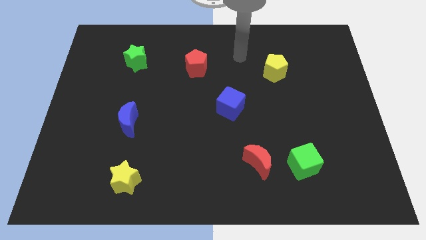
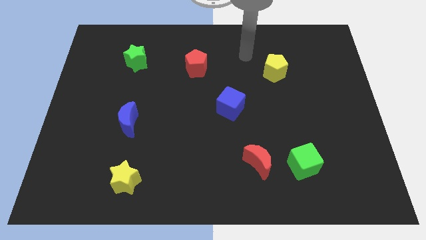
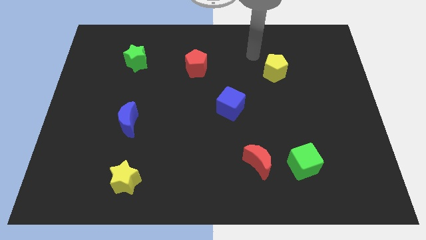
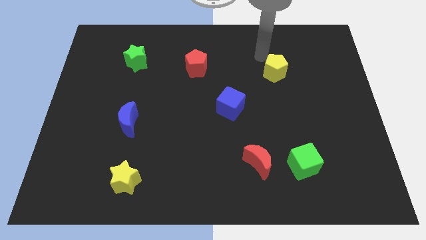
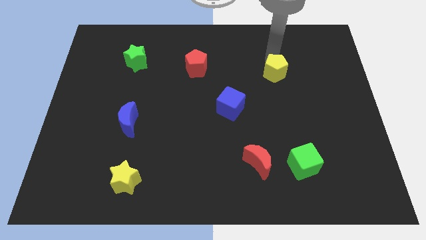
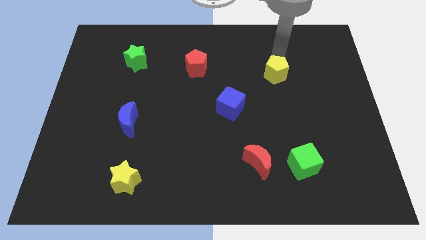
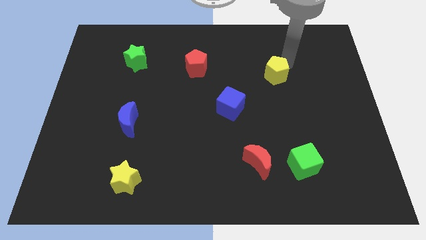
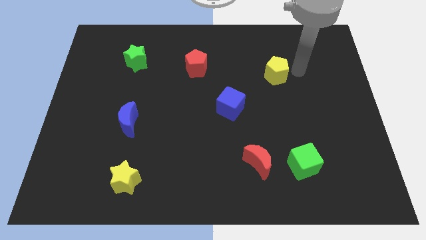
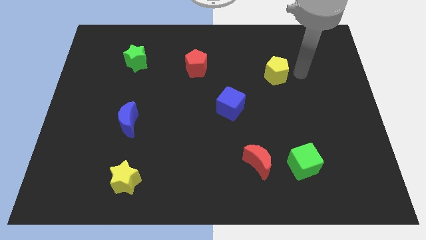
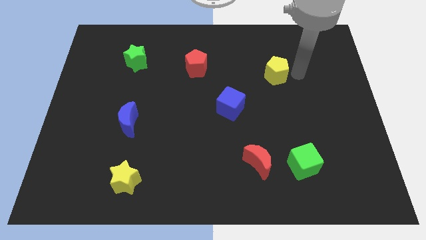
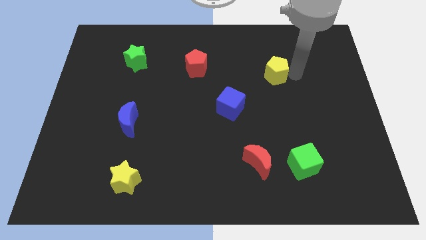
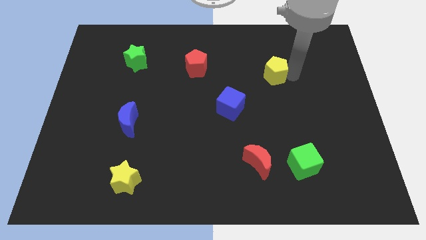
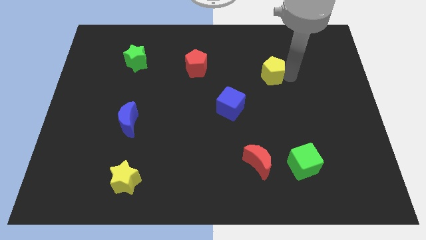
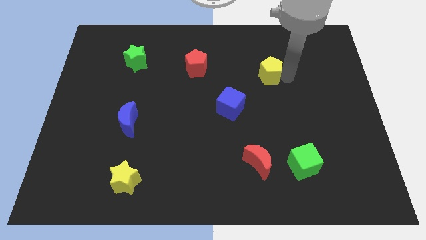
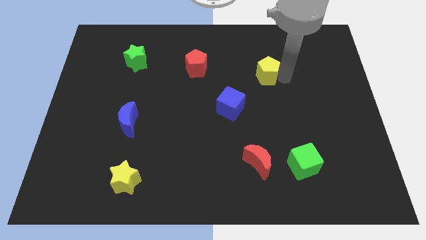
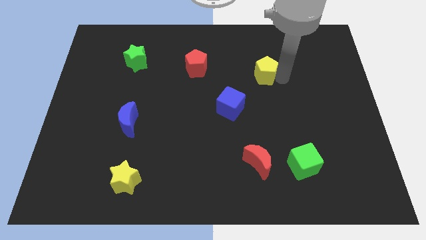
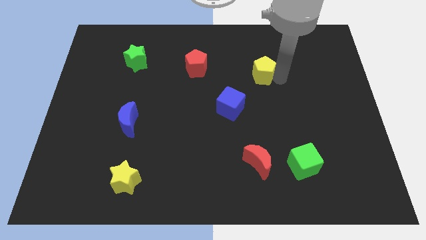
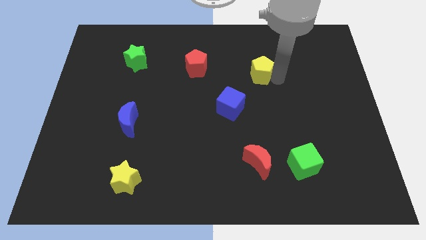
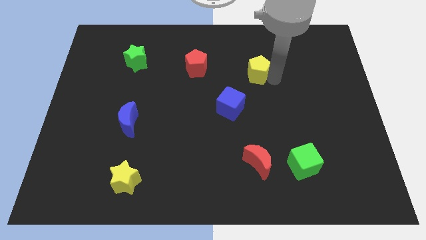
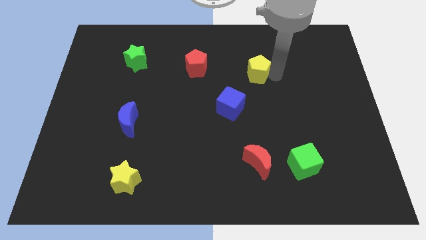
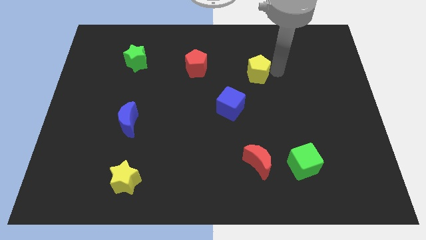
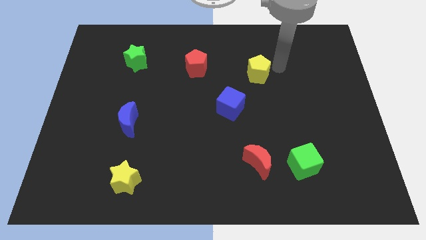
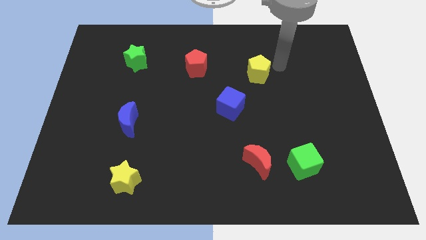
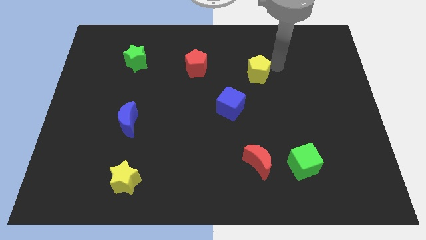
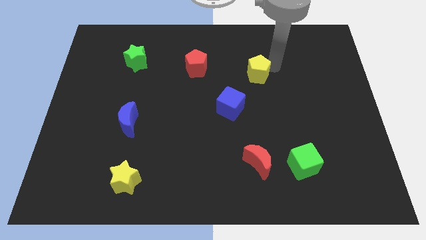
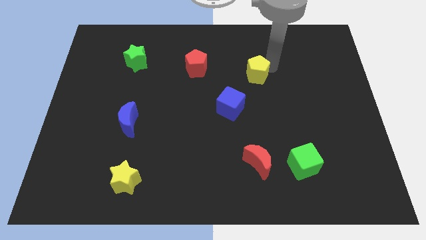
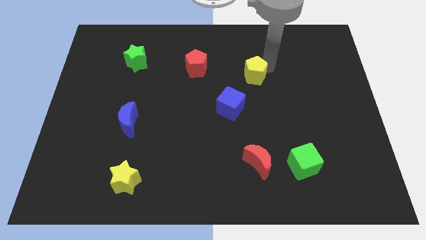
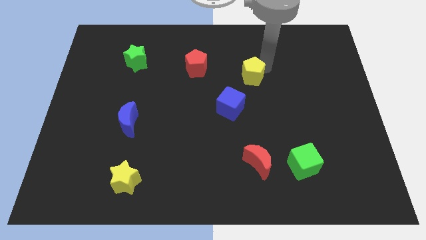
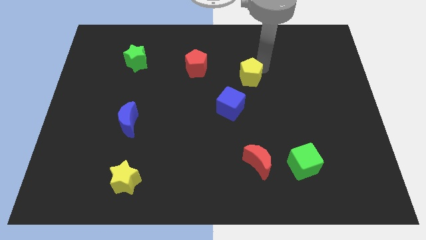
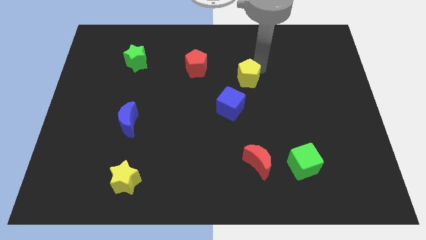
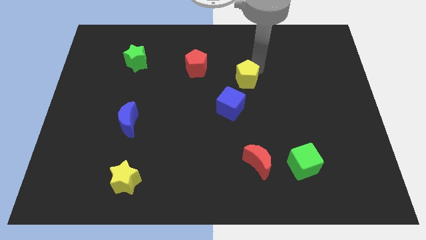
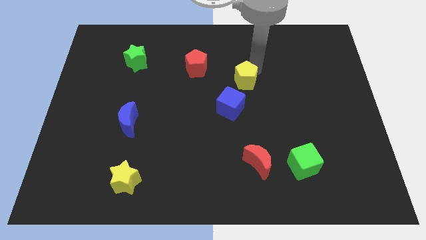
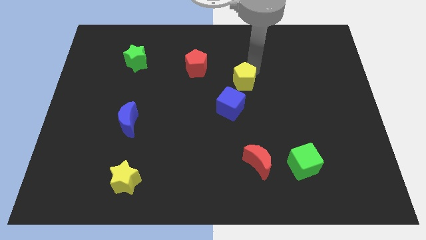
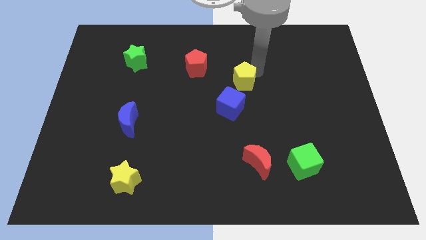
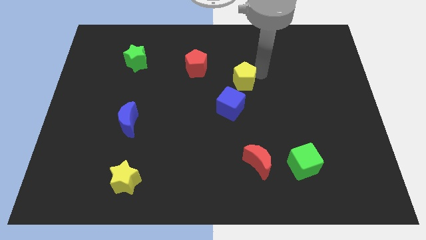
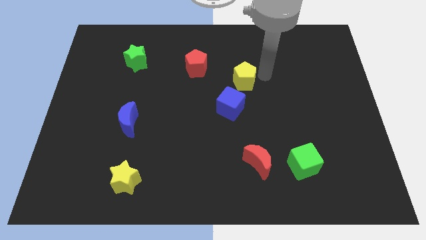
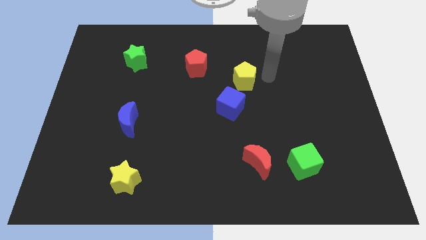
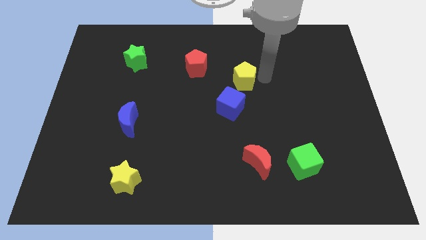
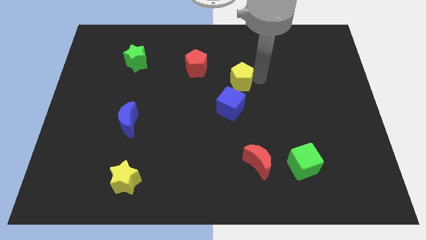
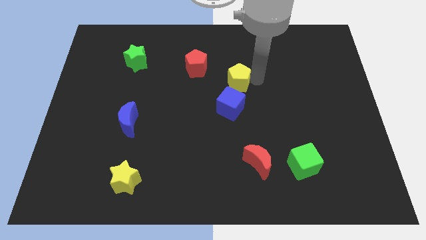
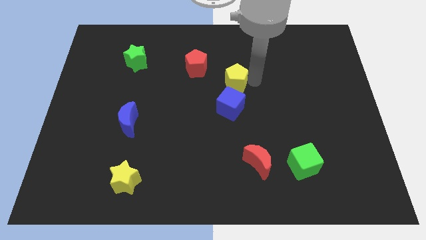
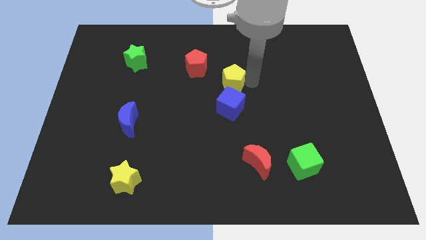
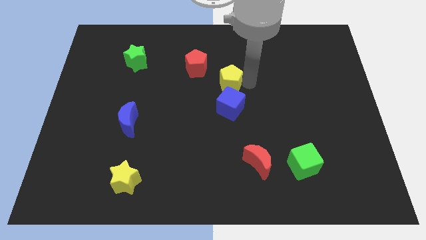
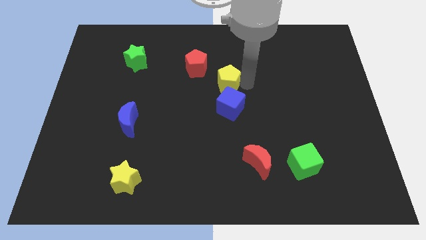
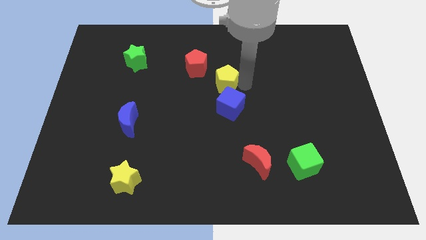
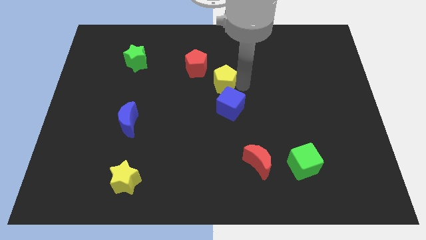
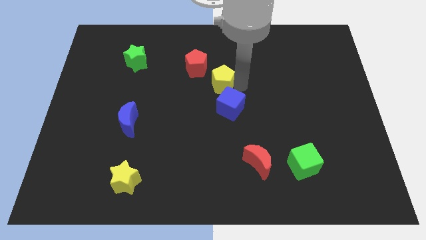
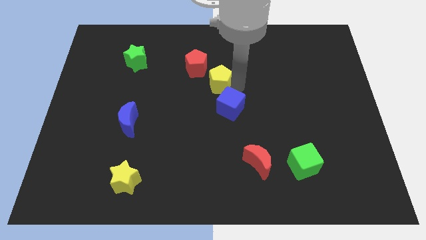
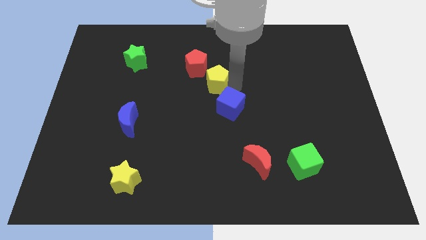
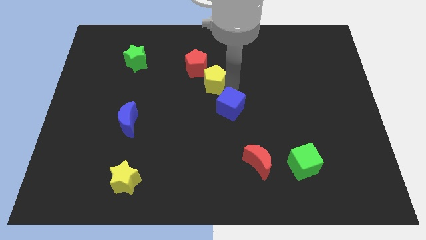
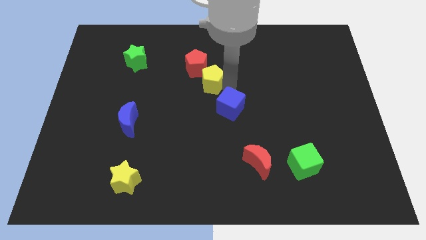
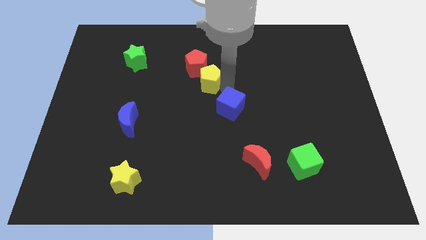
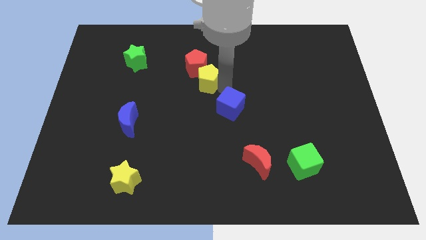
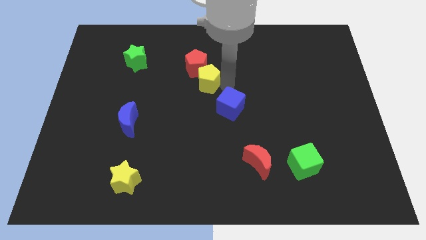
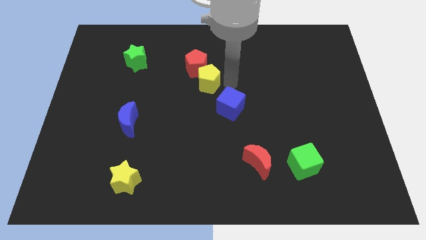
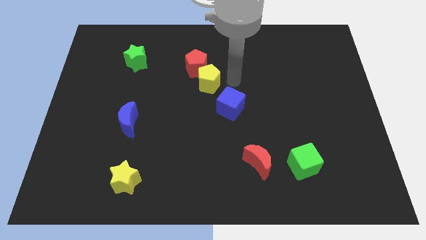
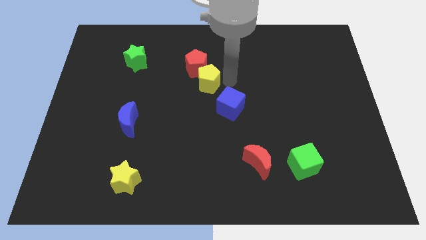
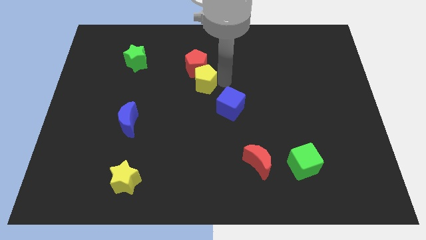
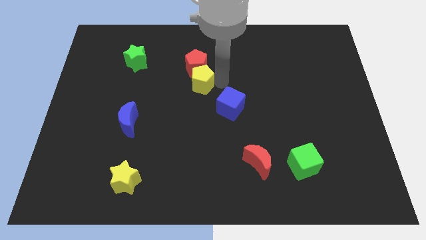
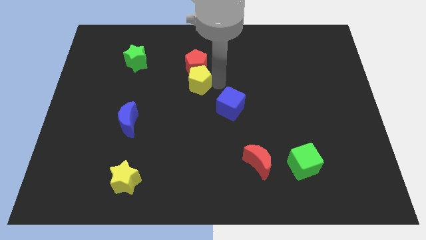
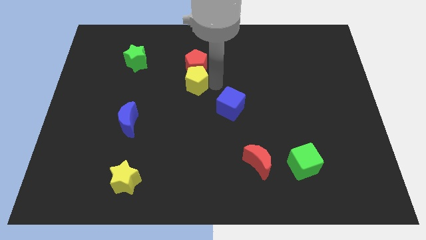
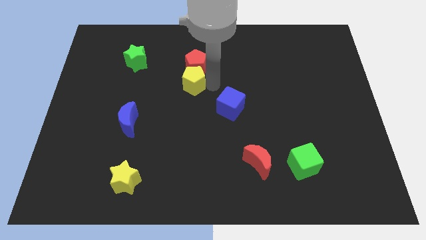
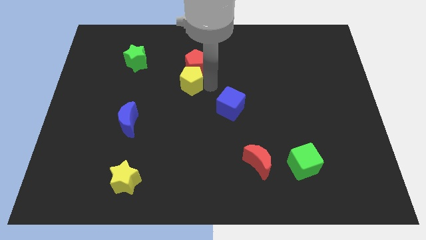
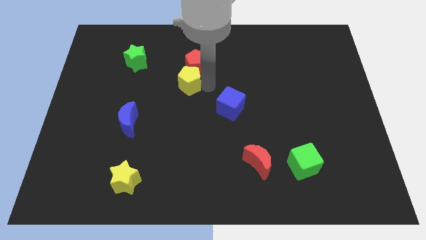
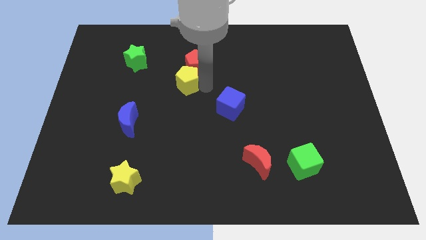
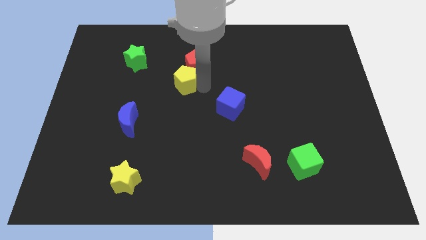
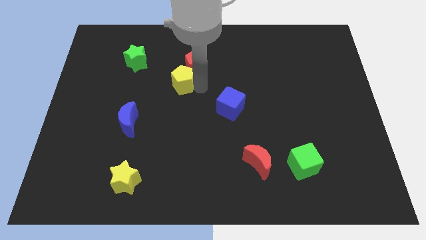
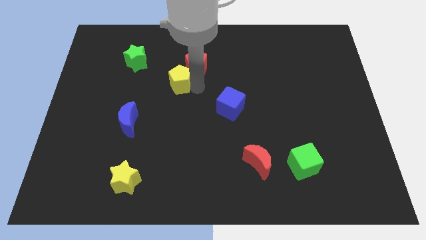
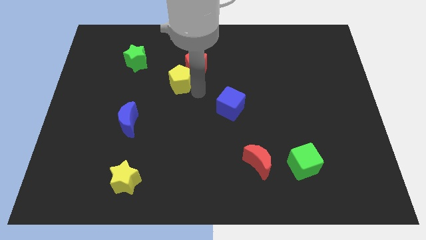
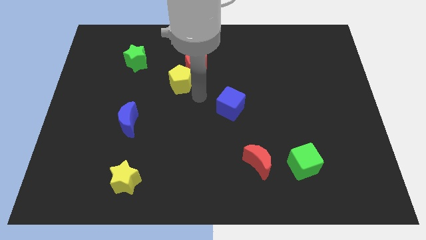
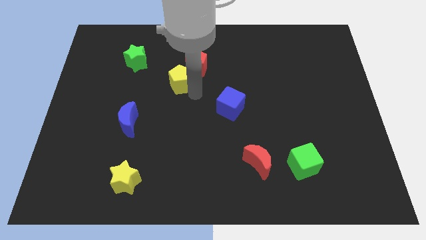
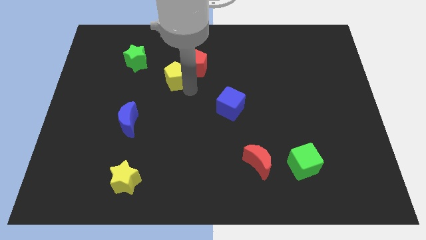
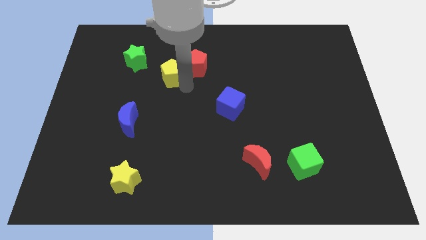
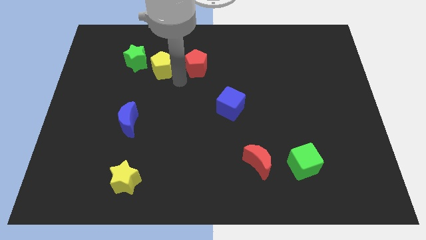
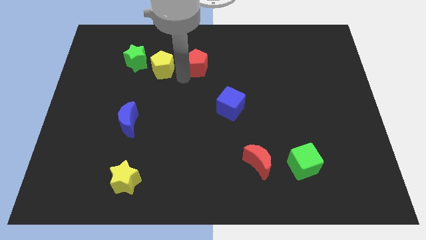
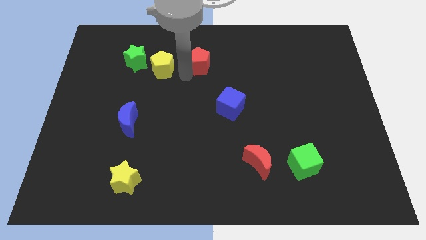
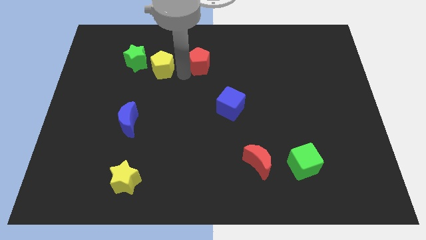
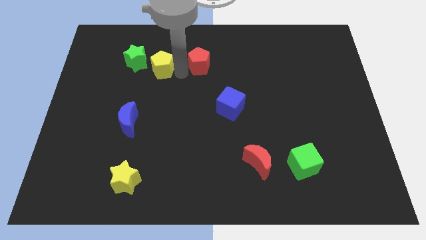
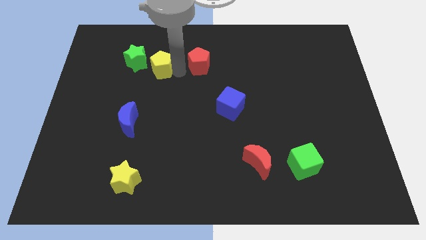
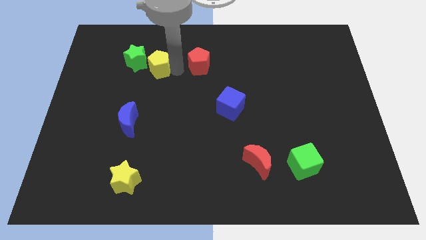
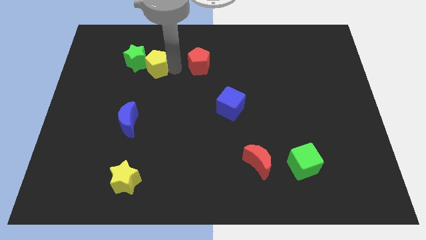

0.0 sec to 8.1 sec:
push the yellow pentagon next to the green star
